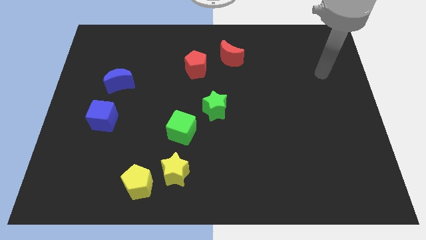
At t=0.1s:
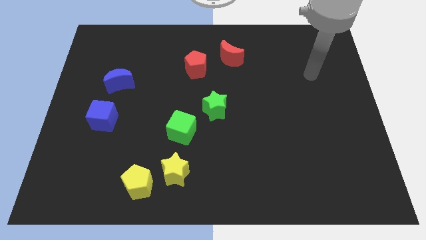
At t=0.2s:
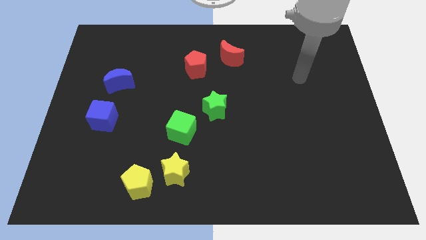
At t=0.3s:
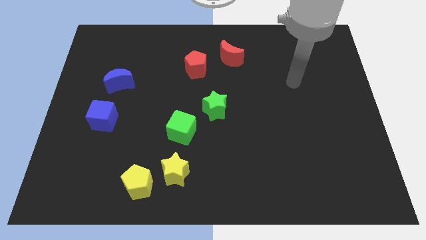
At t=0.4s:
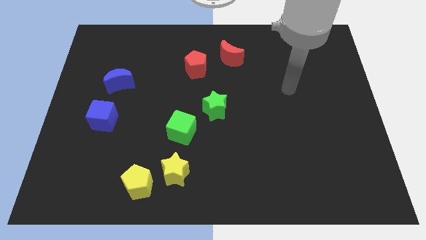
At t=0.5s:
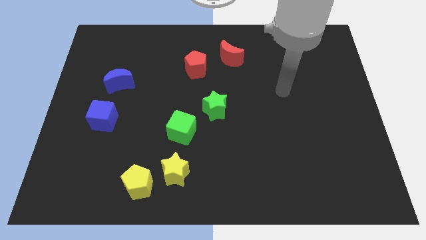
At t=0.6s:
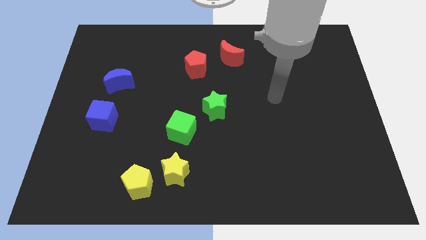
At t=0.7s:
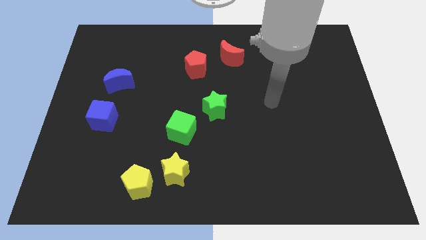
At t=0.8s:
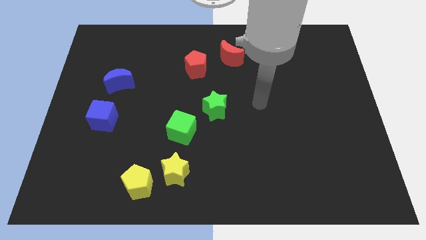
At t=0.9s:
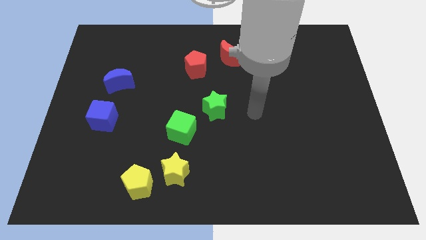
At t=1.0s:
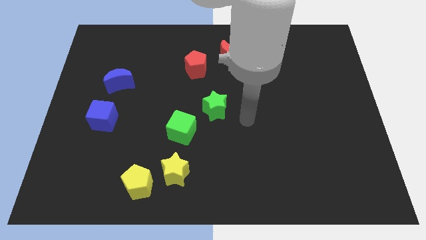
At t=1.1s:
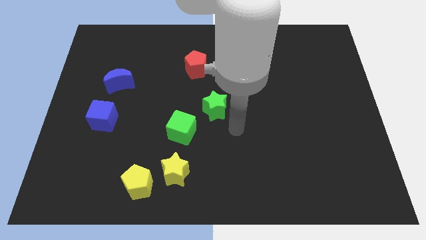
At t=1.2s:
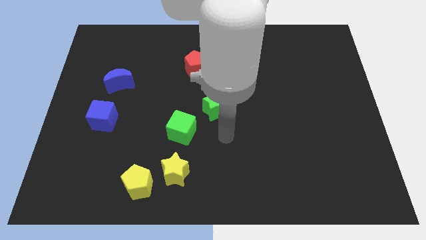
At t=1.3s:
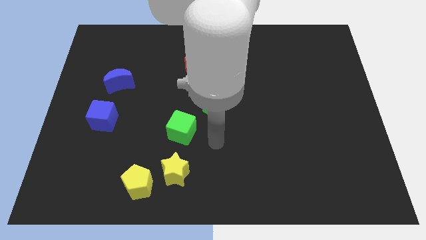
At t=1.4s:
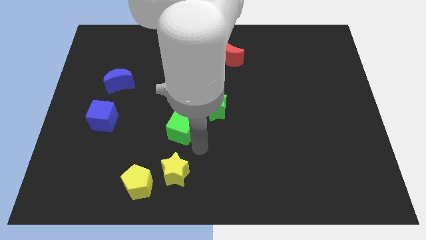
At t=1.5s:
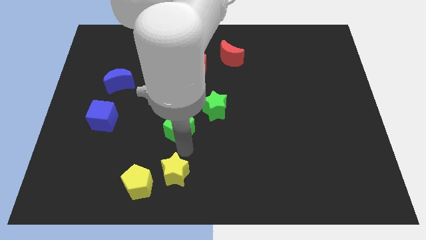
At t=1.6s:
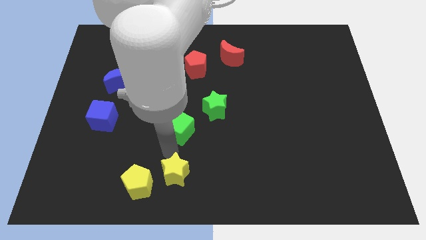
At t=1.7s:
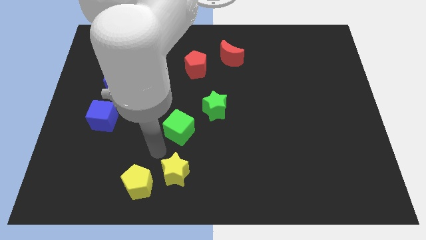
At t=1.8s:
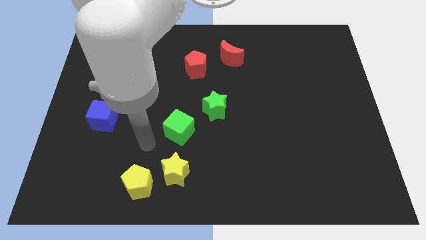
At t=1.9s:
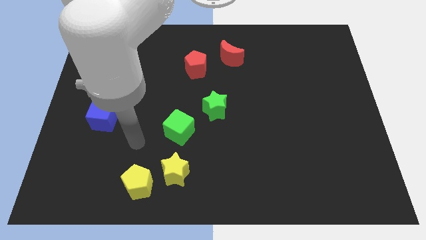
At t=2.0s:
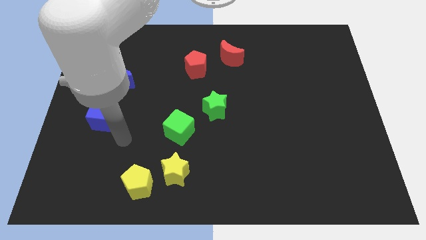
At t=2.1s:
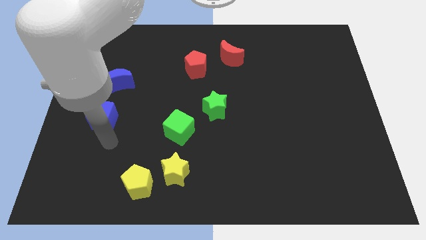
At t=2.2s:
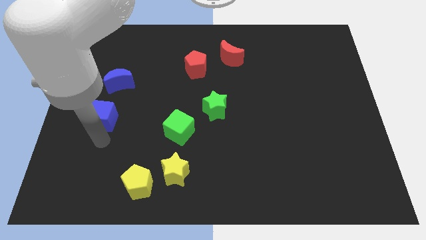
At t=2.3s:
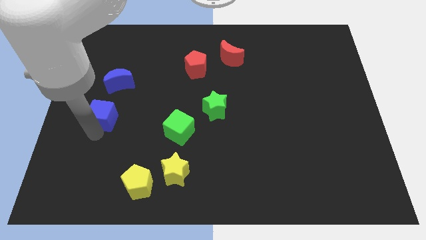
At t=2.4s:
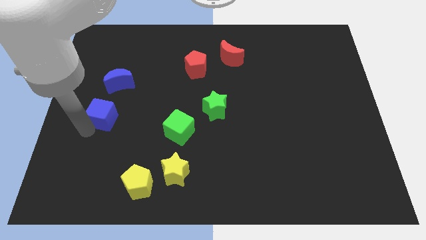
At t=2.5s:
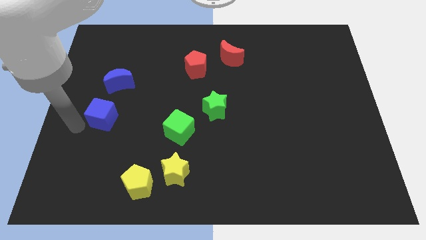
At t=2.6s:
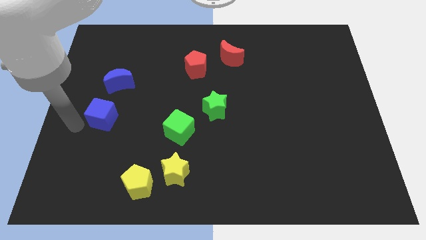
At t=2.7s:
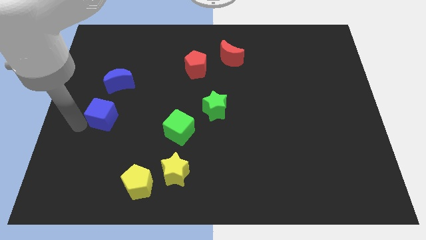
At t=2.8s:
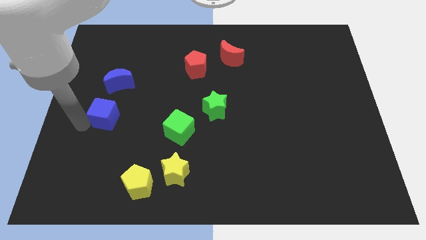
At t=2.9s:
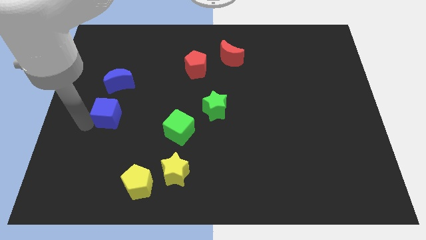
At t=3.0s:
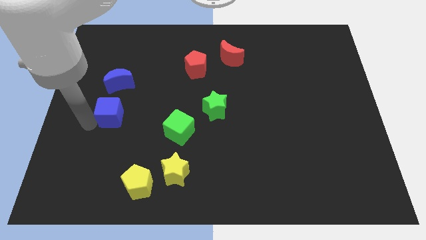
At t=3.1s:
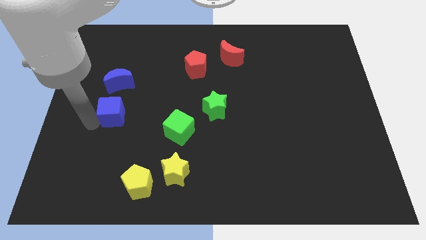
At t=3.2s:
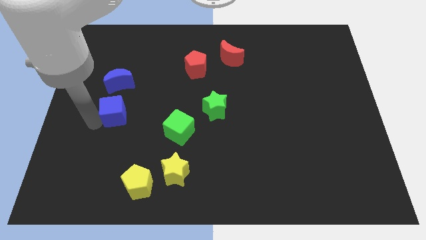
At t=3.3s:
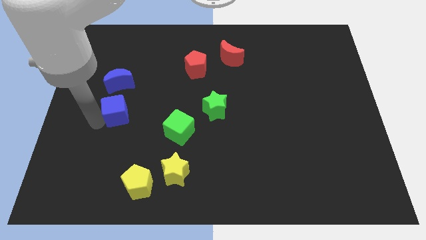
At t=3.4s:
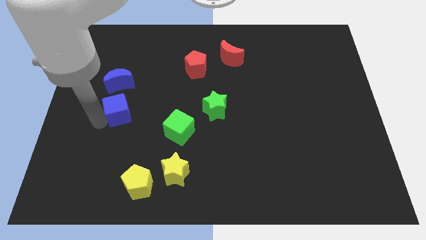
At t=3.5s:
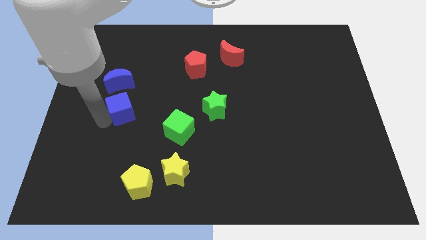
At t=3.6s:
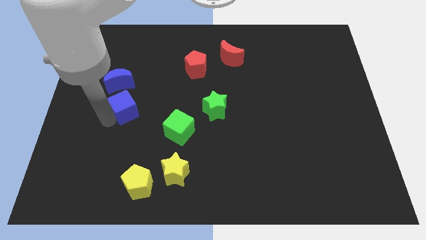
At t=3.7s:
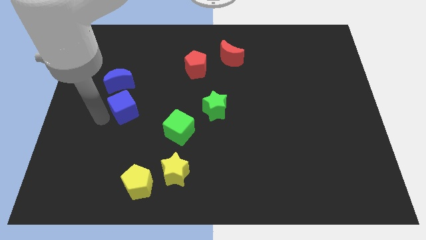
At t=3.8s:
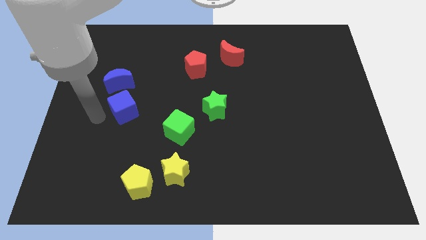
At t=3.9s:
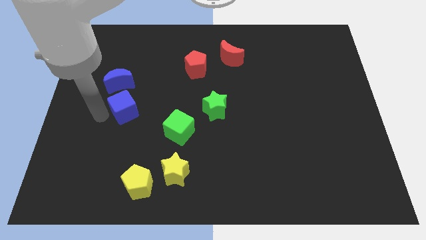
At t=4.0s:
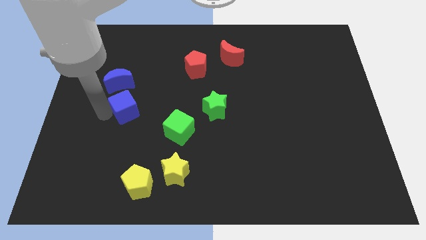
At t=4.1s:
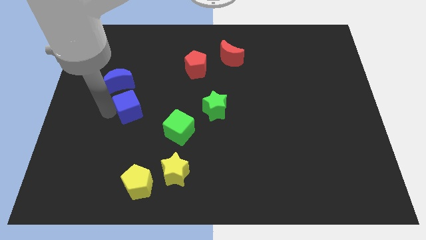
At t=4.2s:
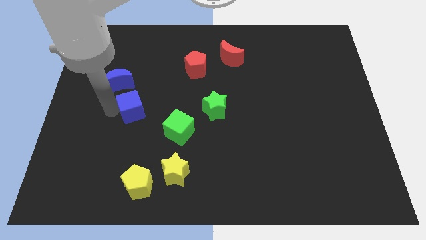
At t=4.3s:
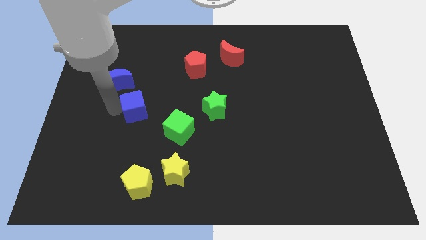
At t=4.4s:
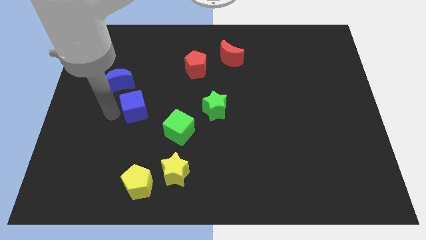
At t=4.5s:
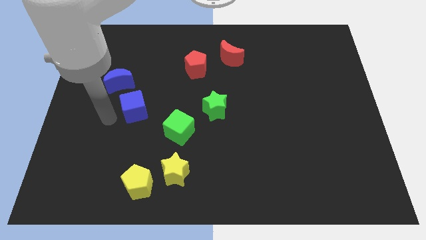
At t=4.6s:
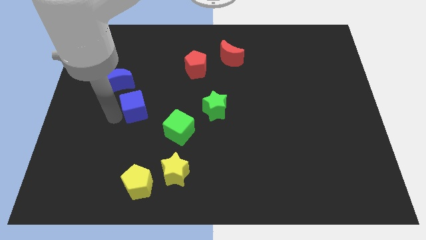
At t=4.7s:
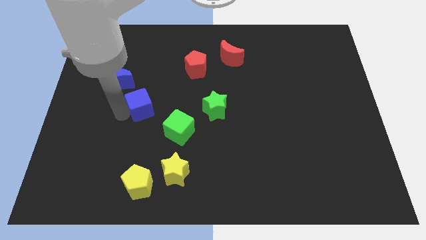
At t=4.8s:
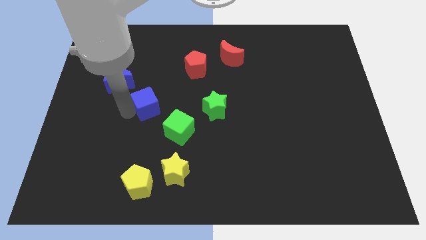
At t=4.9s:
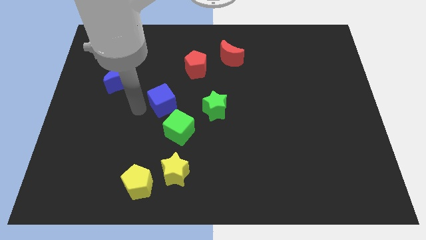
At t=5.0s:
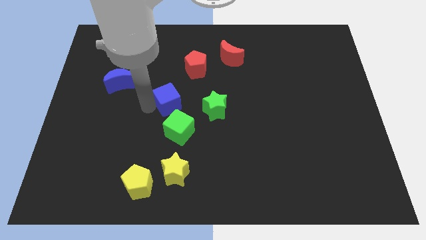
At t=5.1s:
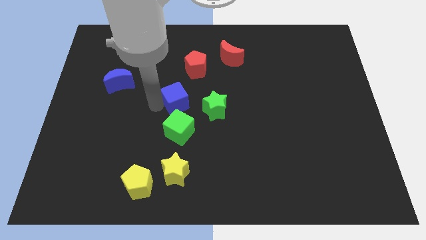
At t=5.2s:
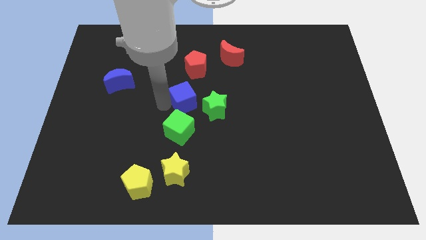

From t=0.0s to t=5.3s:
push the blue cube to the top left of the green star

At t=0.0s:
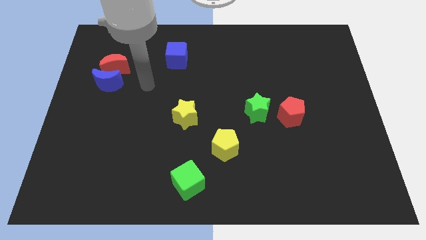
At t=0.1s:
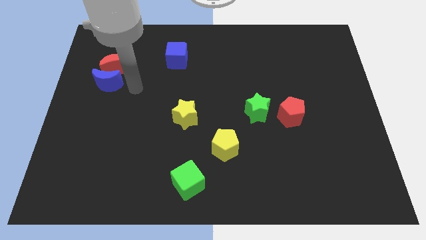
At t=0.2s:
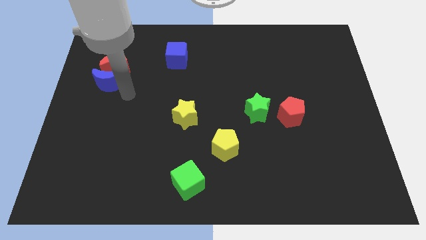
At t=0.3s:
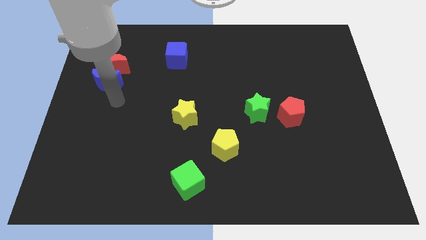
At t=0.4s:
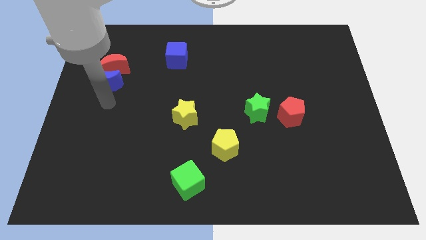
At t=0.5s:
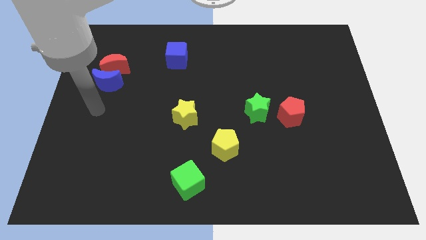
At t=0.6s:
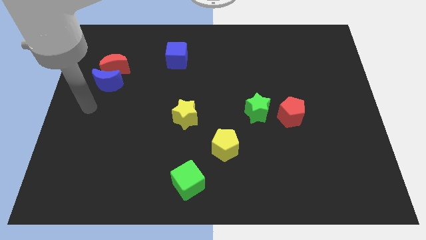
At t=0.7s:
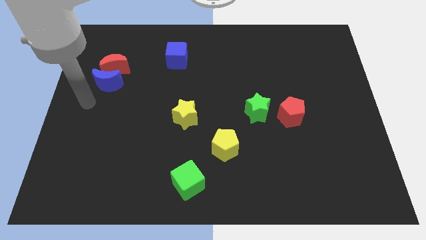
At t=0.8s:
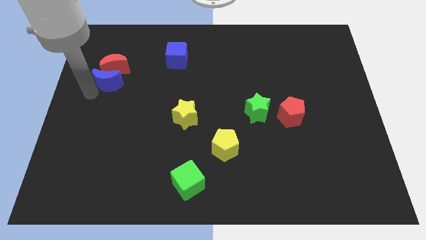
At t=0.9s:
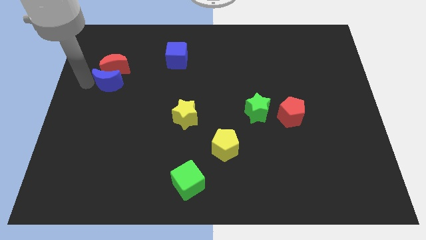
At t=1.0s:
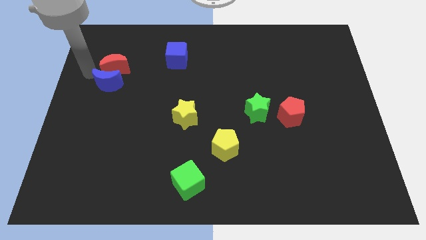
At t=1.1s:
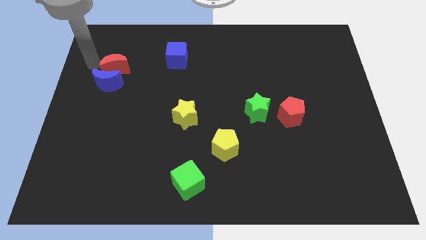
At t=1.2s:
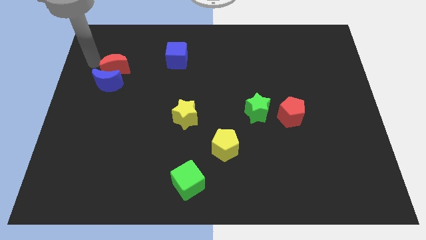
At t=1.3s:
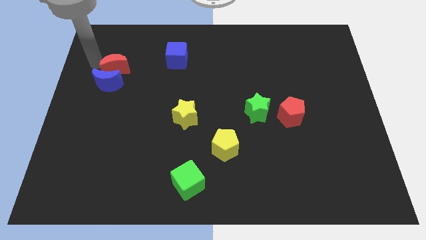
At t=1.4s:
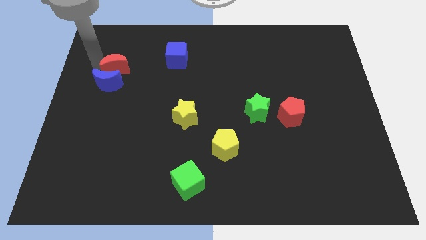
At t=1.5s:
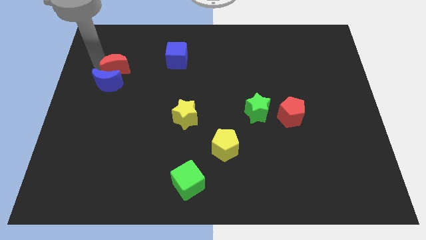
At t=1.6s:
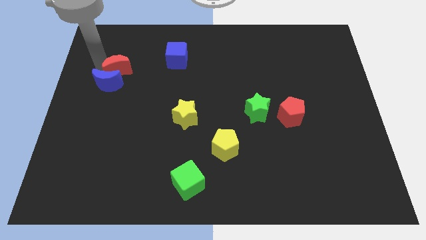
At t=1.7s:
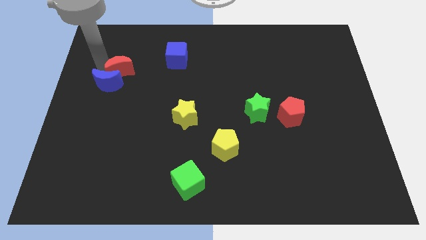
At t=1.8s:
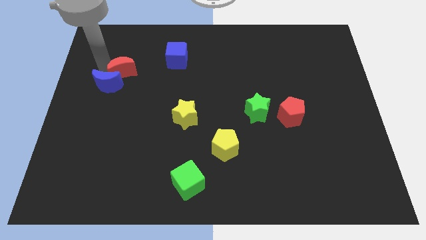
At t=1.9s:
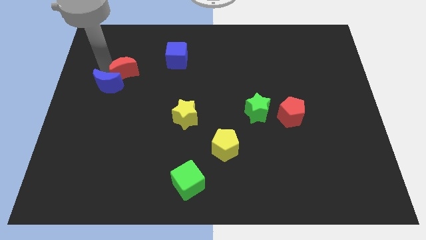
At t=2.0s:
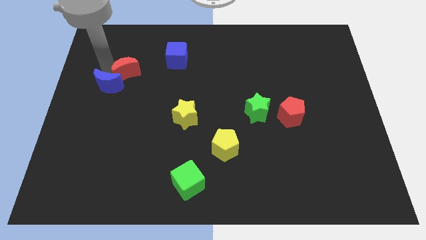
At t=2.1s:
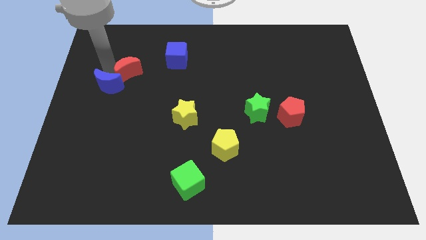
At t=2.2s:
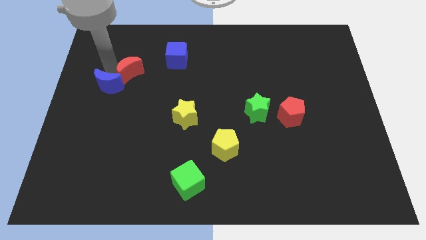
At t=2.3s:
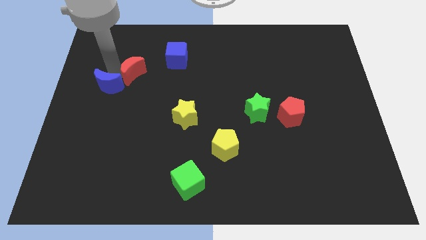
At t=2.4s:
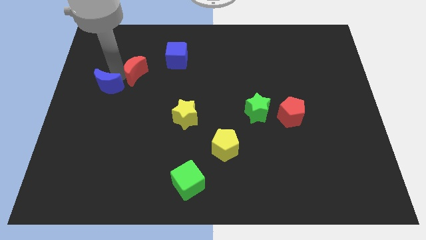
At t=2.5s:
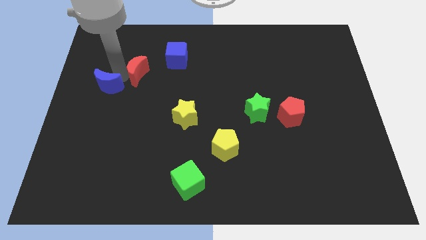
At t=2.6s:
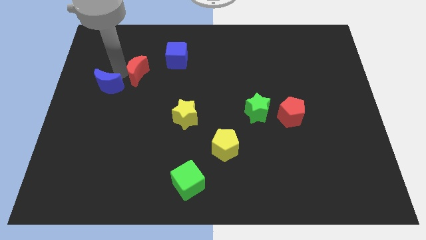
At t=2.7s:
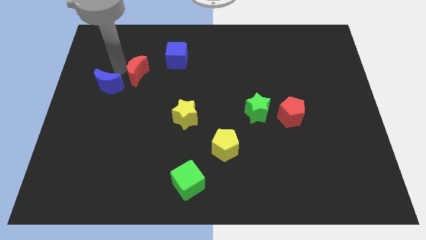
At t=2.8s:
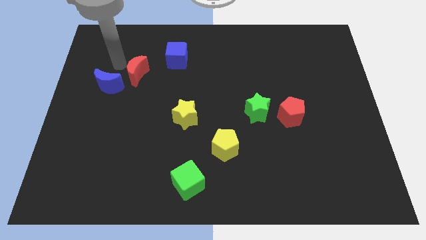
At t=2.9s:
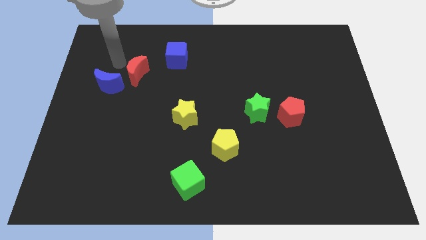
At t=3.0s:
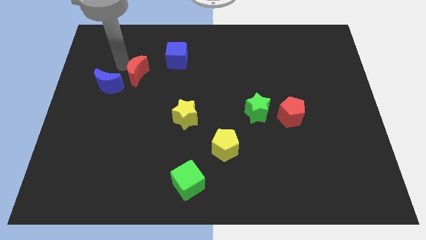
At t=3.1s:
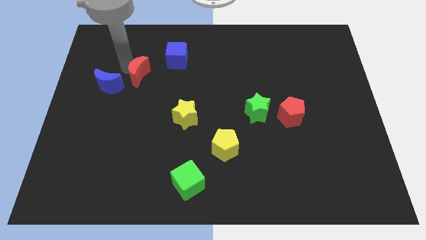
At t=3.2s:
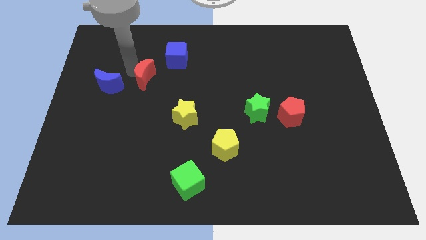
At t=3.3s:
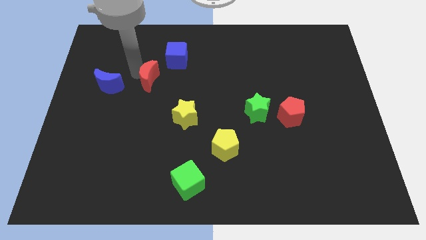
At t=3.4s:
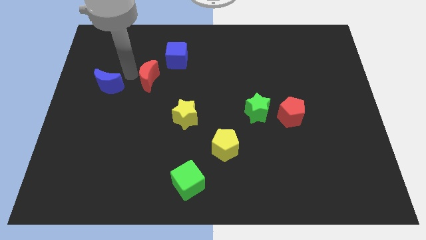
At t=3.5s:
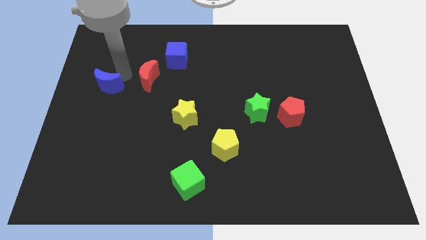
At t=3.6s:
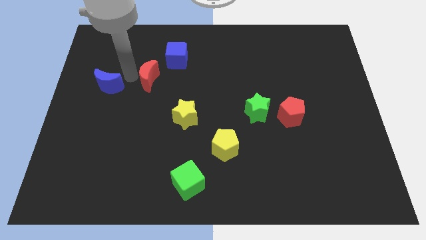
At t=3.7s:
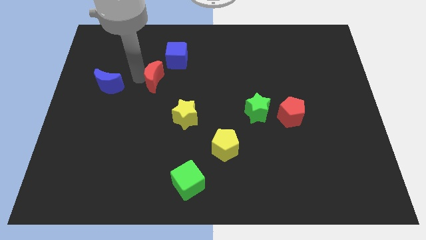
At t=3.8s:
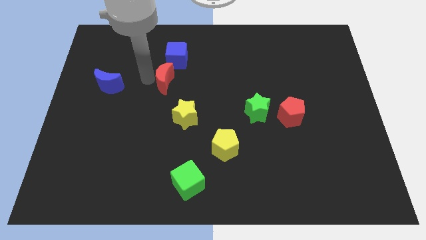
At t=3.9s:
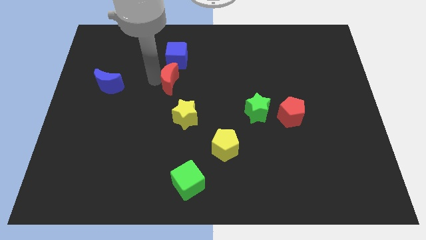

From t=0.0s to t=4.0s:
slide the red moon to the top side of the yellow star
